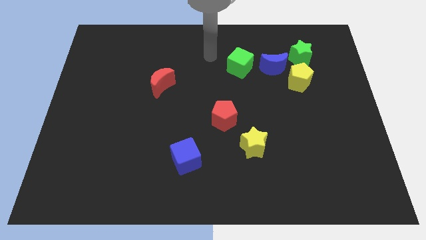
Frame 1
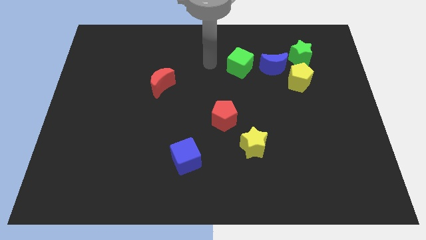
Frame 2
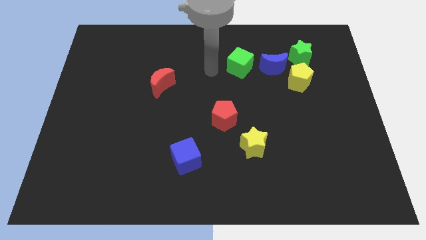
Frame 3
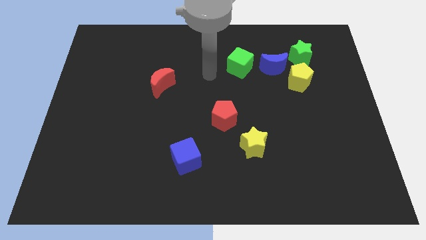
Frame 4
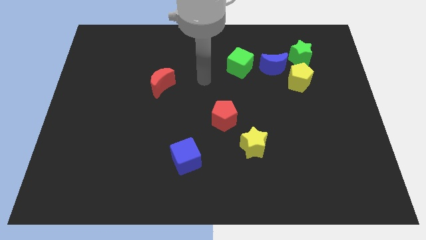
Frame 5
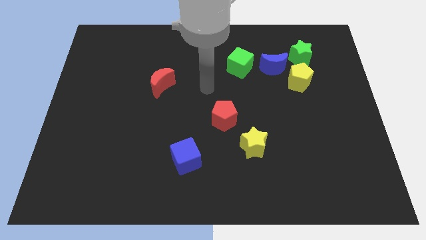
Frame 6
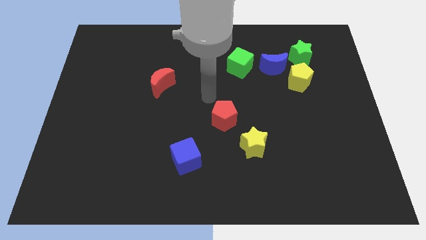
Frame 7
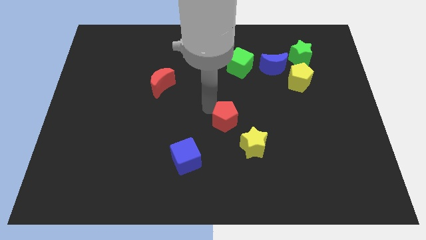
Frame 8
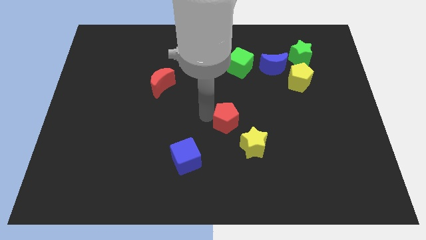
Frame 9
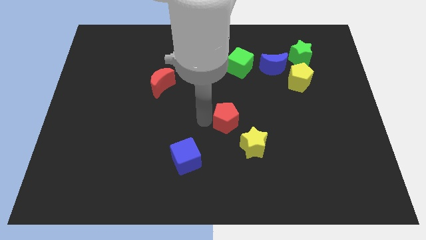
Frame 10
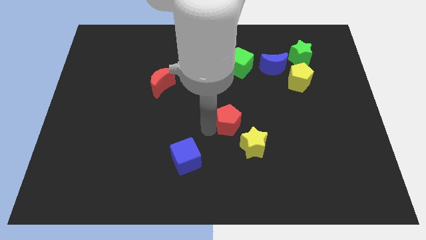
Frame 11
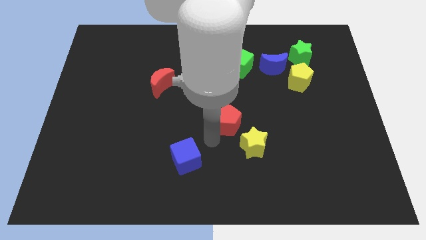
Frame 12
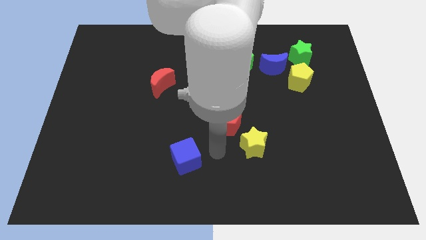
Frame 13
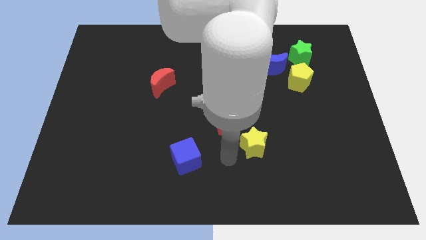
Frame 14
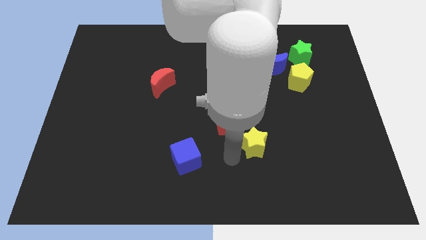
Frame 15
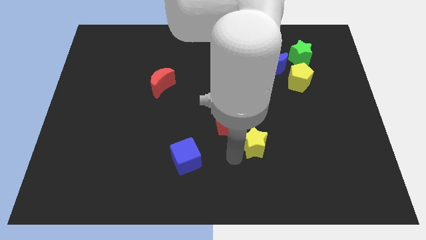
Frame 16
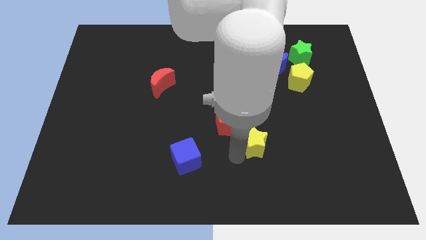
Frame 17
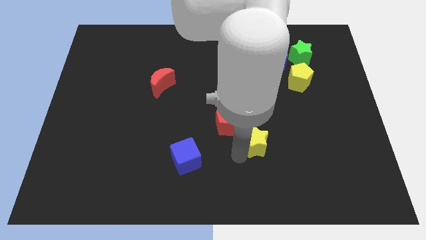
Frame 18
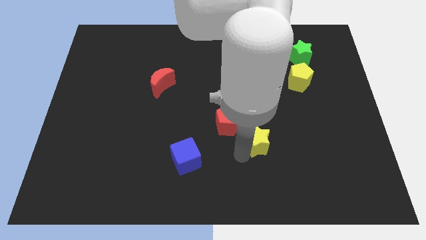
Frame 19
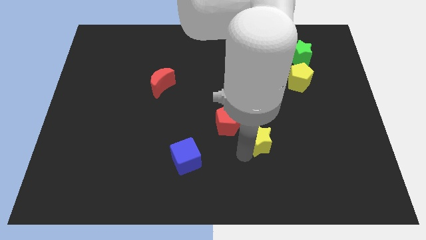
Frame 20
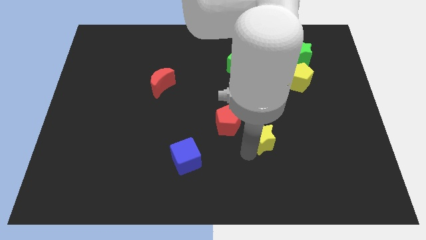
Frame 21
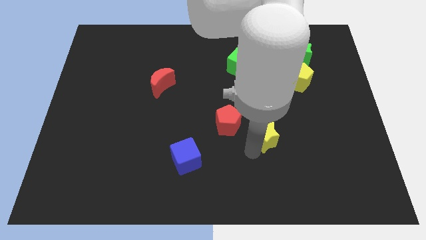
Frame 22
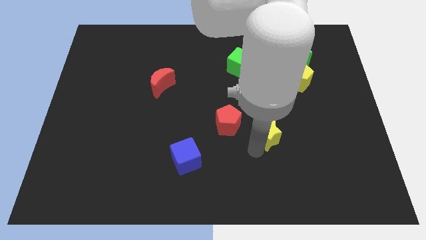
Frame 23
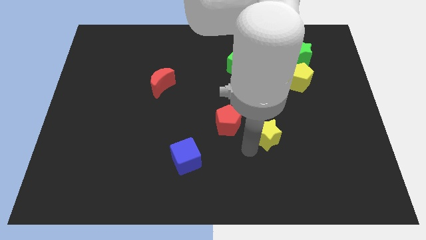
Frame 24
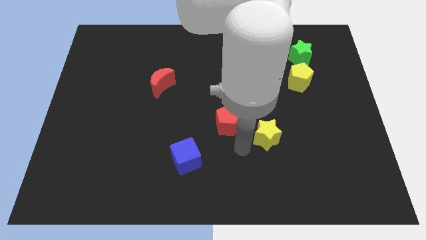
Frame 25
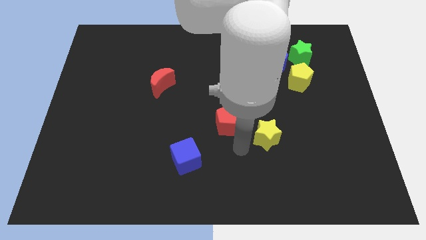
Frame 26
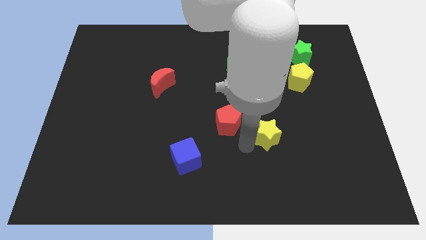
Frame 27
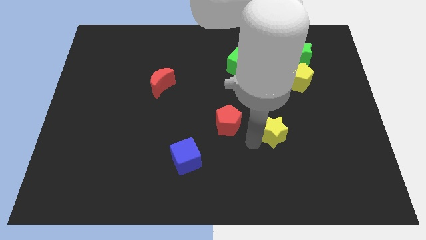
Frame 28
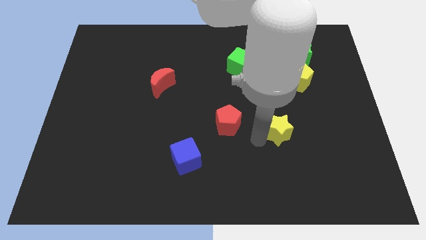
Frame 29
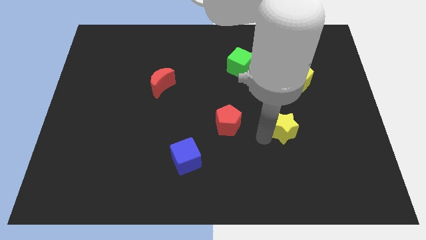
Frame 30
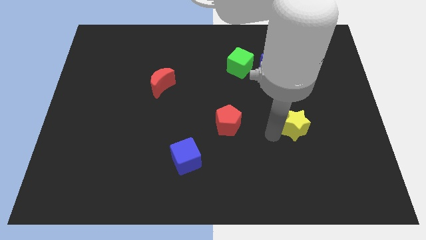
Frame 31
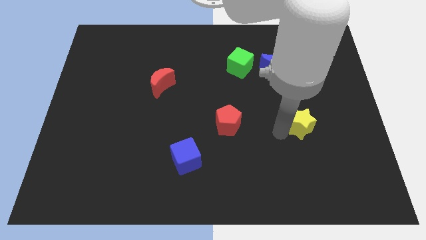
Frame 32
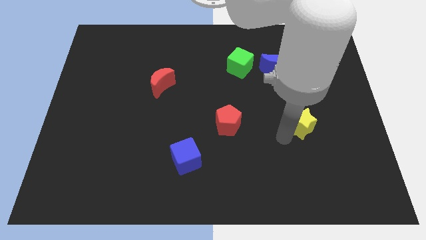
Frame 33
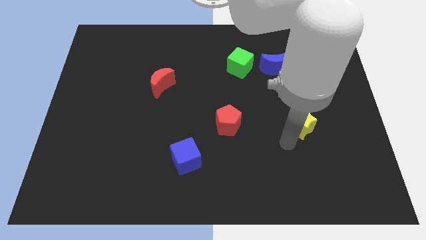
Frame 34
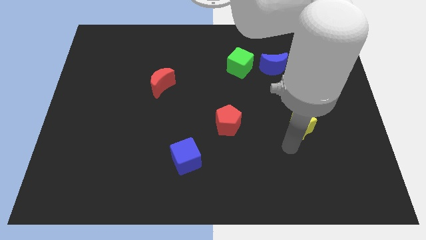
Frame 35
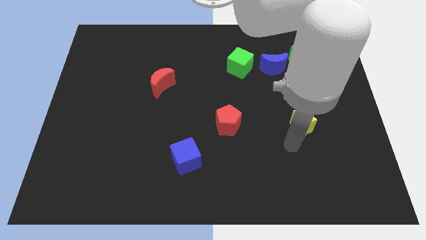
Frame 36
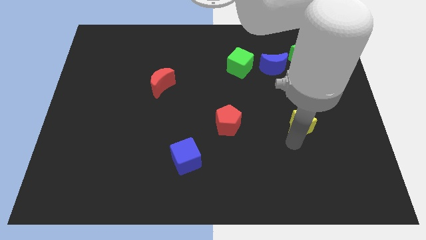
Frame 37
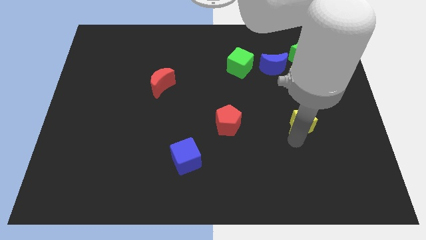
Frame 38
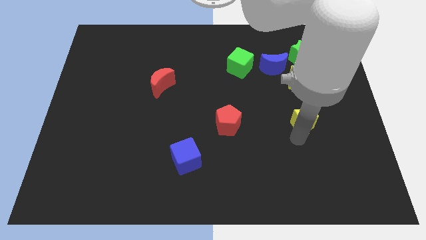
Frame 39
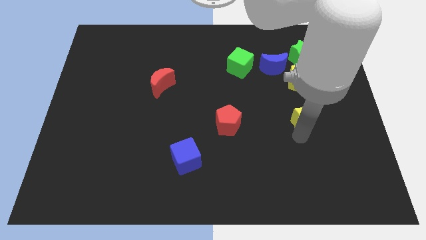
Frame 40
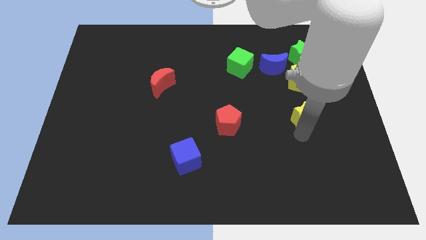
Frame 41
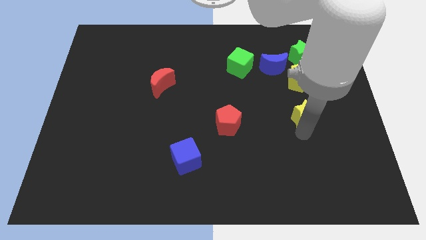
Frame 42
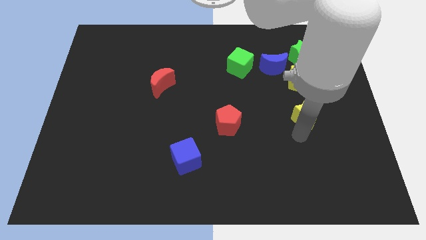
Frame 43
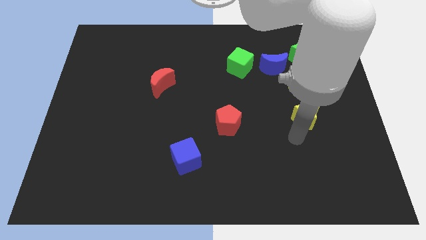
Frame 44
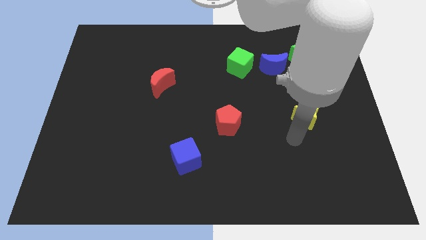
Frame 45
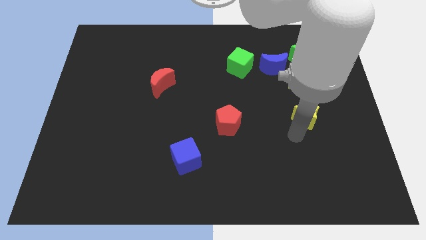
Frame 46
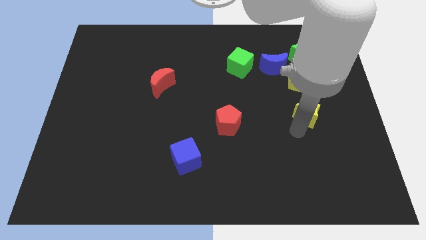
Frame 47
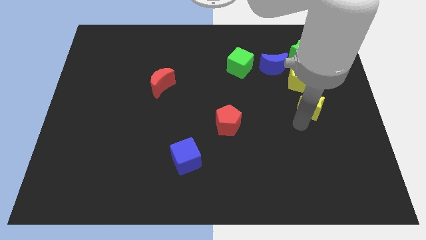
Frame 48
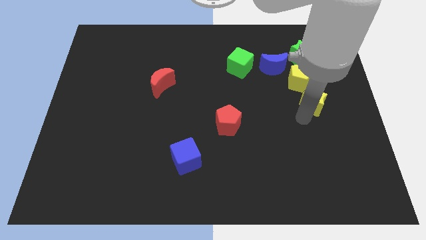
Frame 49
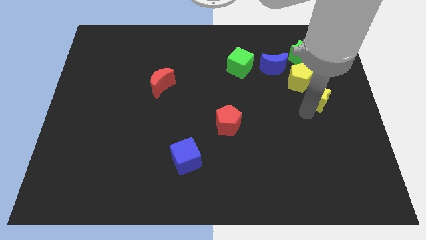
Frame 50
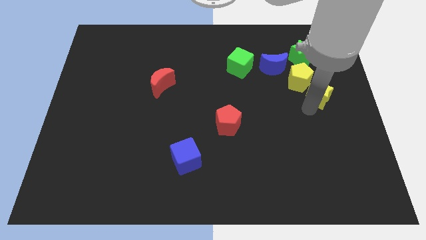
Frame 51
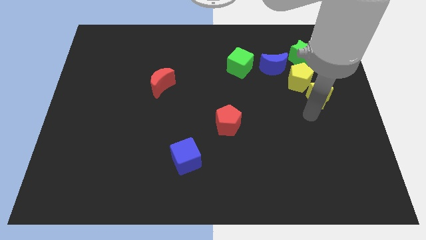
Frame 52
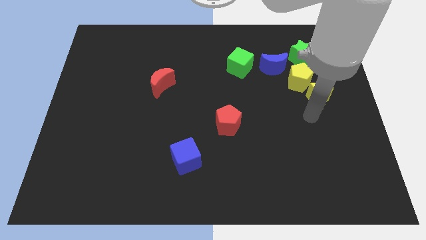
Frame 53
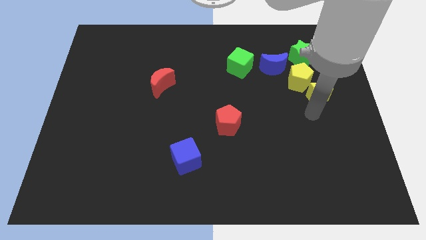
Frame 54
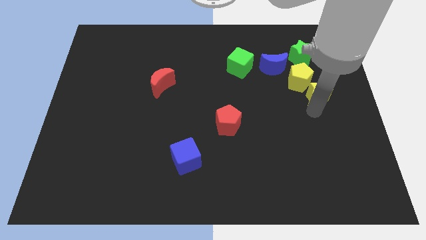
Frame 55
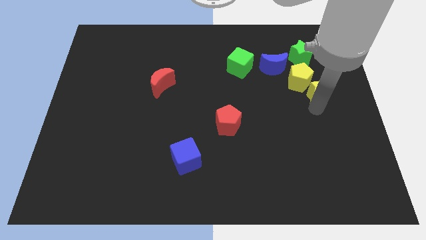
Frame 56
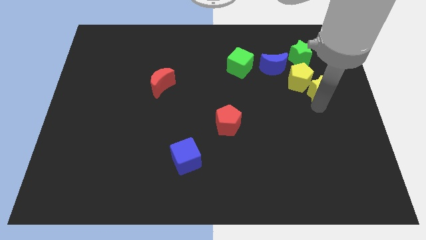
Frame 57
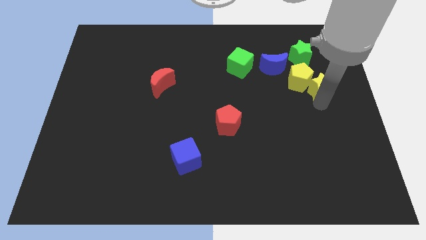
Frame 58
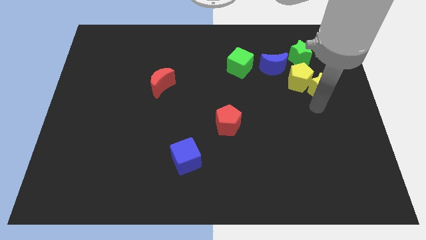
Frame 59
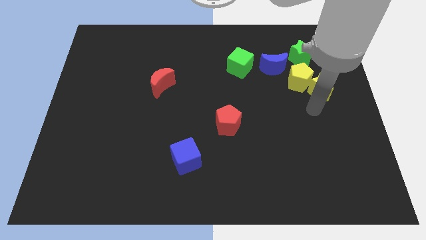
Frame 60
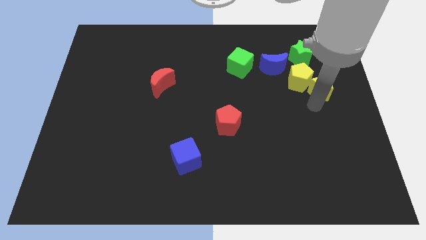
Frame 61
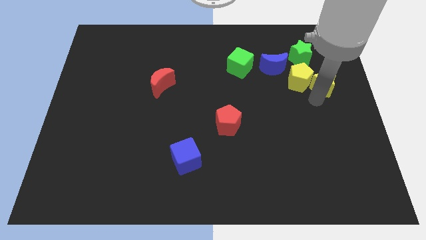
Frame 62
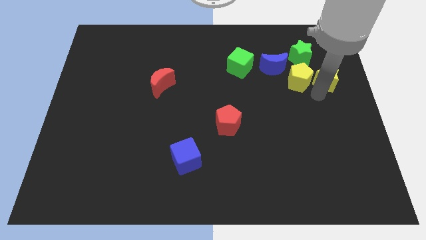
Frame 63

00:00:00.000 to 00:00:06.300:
push the yellow star to the bottom right of the green star

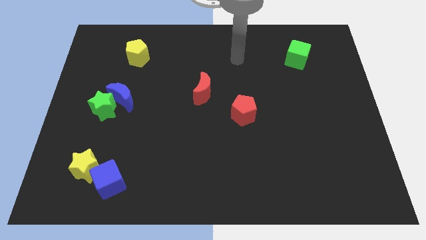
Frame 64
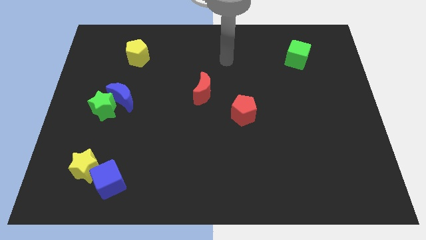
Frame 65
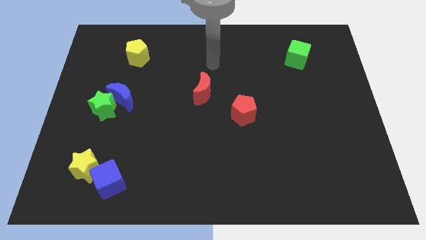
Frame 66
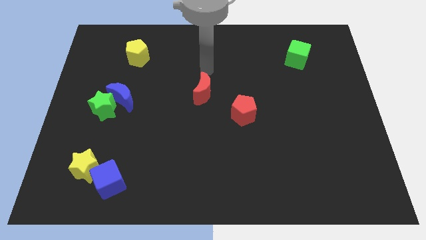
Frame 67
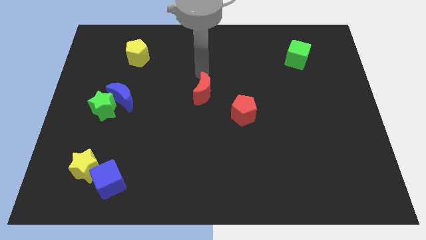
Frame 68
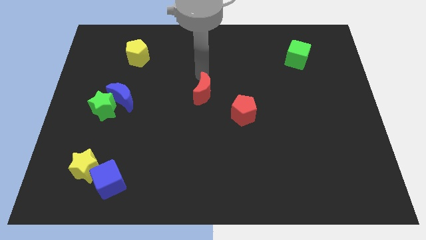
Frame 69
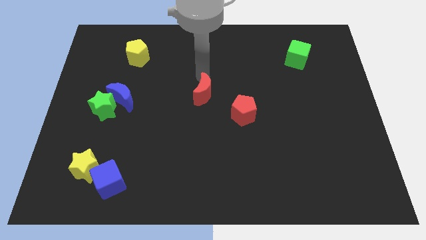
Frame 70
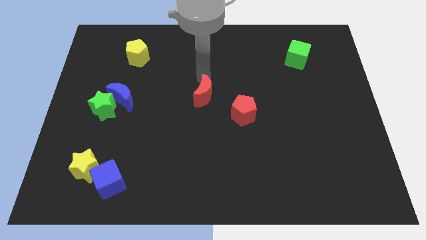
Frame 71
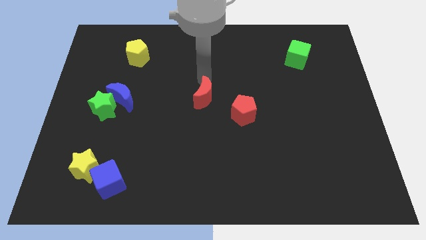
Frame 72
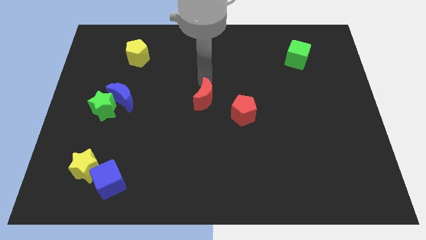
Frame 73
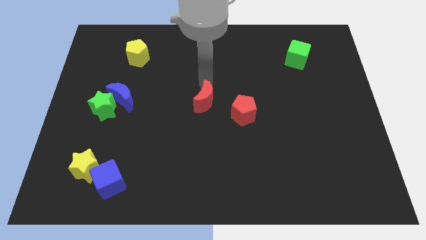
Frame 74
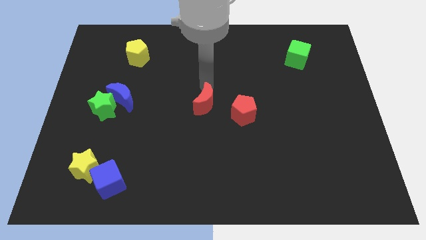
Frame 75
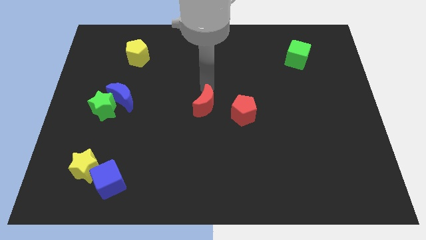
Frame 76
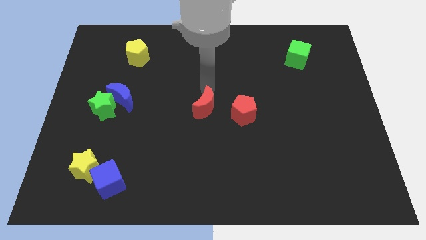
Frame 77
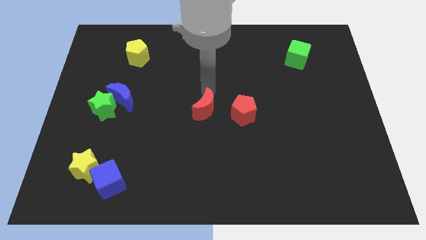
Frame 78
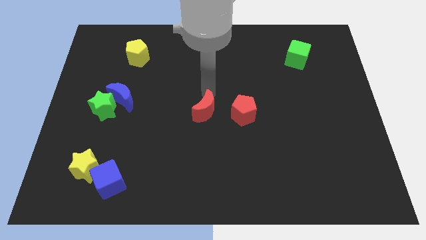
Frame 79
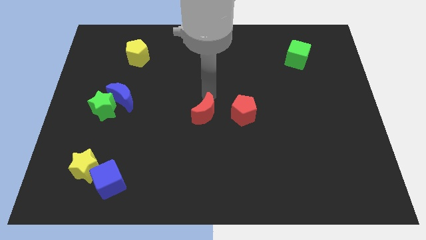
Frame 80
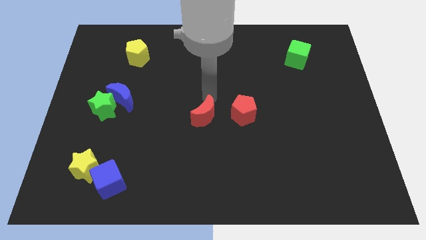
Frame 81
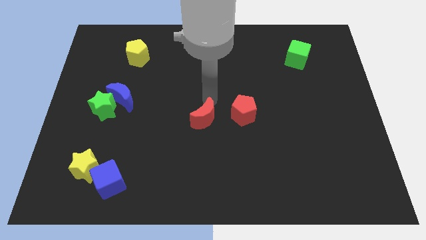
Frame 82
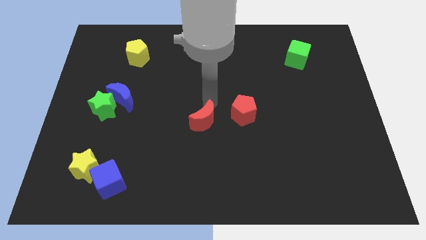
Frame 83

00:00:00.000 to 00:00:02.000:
slide the red moon diagonally down and to the left of the red pentagon
